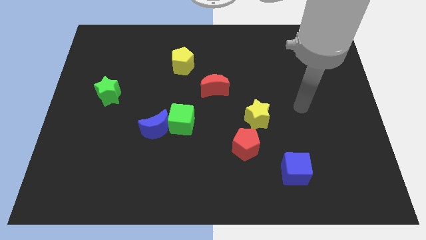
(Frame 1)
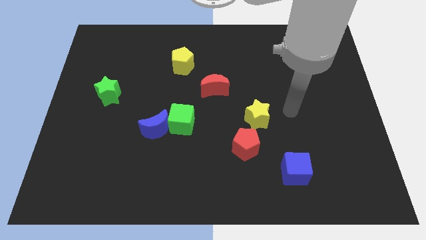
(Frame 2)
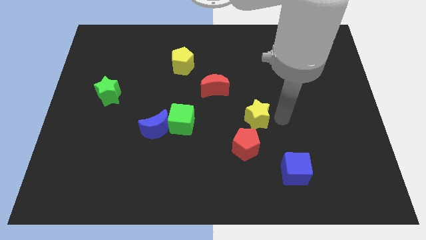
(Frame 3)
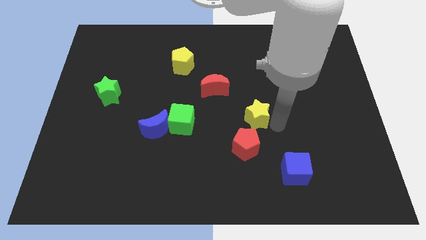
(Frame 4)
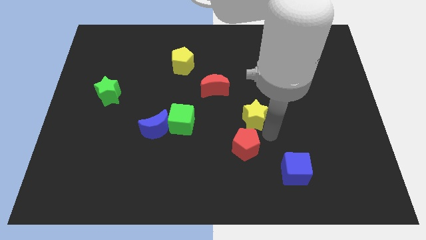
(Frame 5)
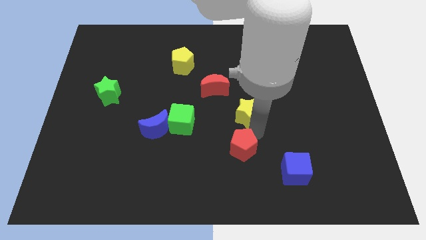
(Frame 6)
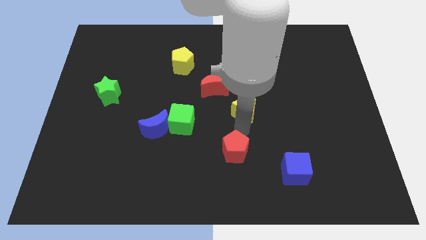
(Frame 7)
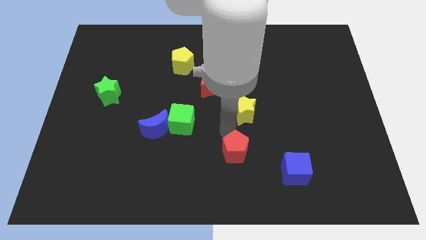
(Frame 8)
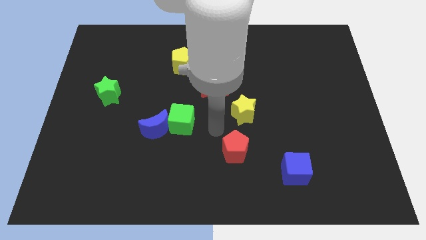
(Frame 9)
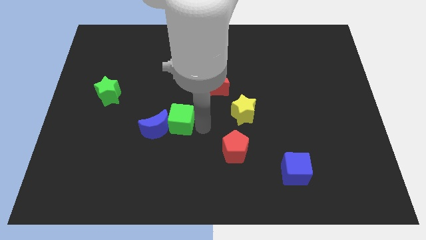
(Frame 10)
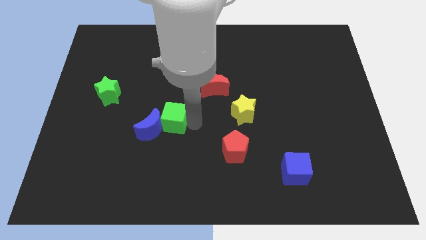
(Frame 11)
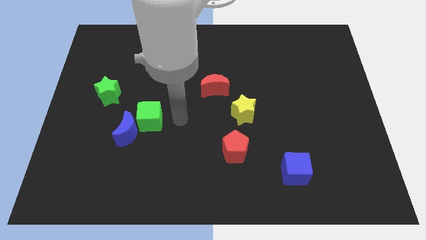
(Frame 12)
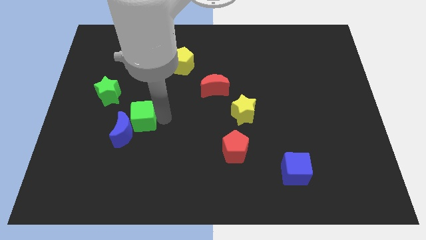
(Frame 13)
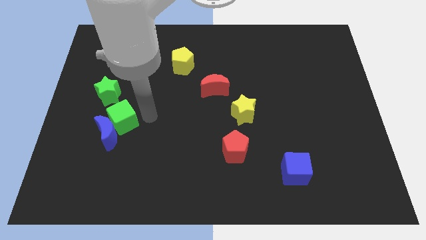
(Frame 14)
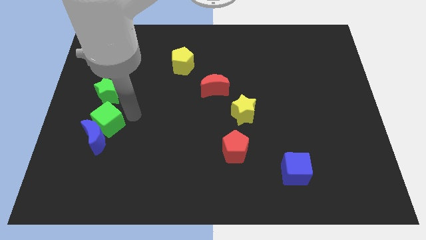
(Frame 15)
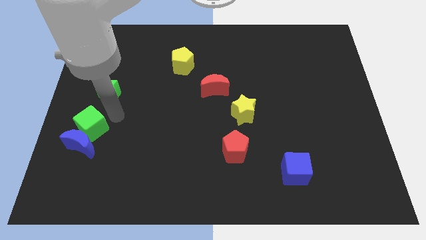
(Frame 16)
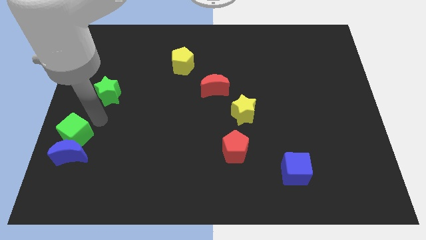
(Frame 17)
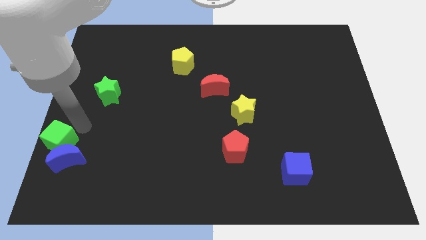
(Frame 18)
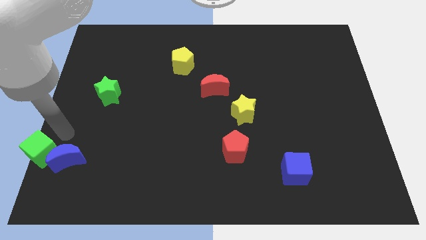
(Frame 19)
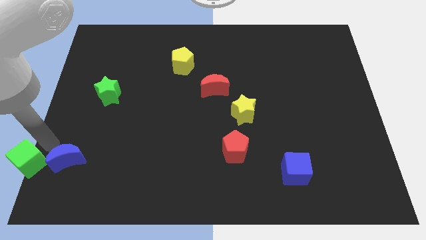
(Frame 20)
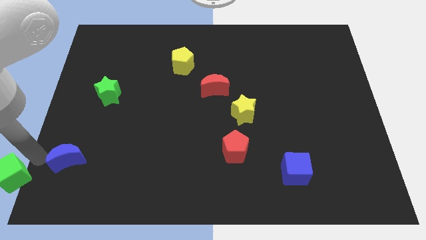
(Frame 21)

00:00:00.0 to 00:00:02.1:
separate the blue moon from the green cube

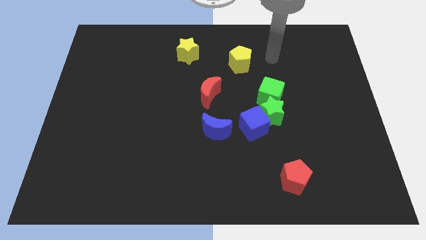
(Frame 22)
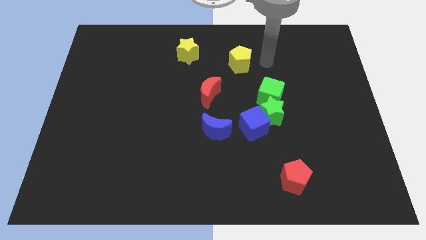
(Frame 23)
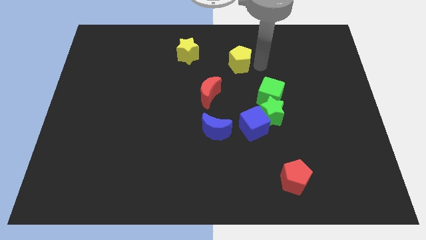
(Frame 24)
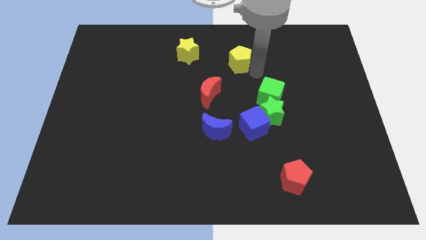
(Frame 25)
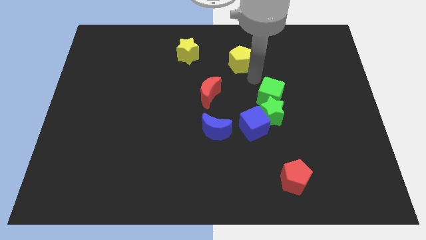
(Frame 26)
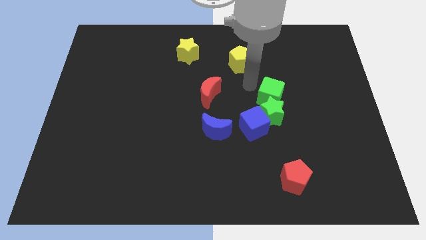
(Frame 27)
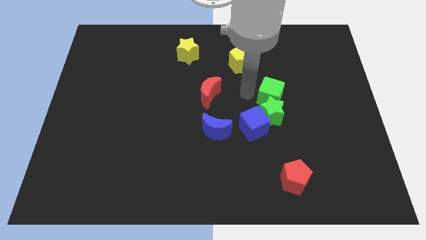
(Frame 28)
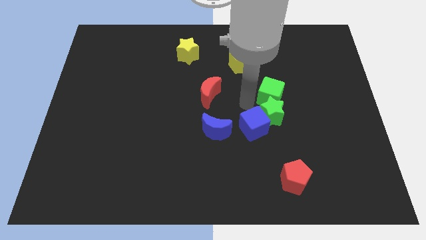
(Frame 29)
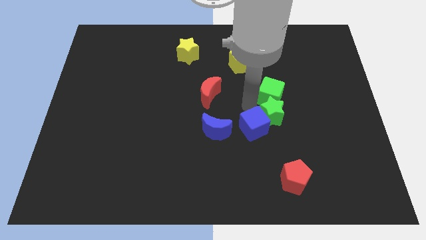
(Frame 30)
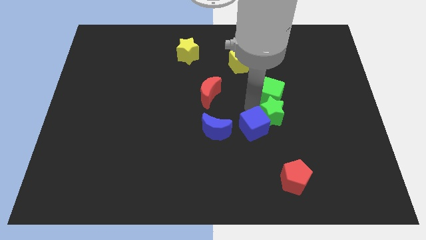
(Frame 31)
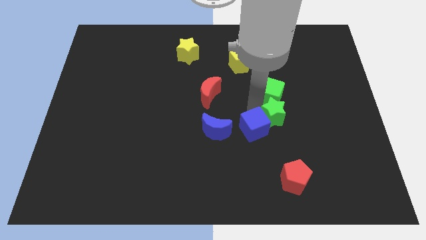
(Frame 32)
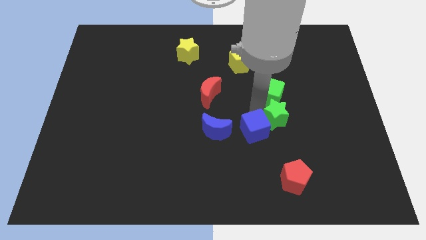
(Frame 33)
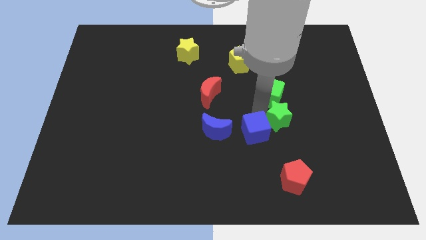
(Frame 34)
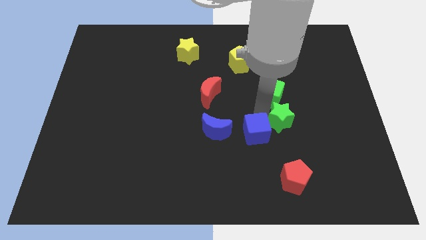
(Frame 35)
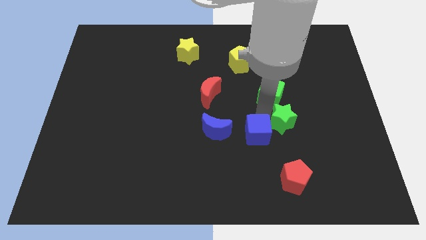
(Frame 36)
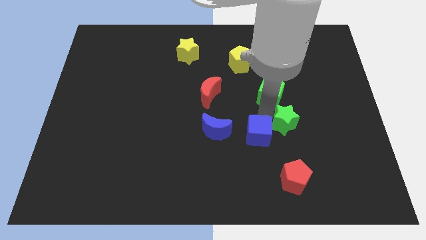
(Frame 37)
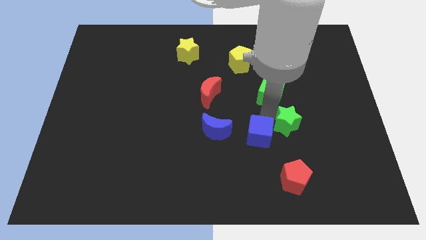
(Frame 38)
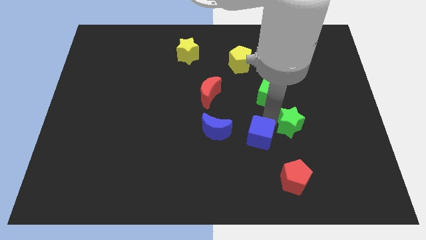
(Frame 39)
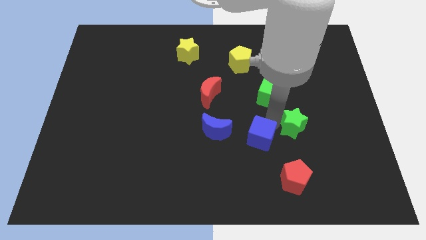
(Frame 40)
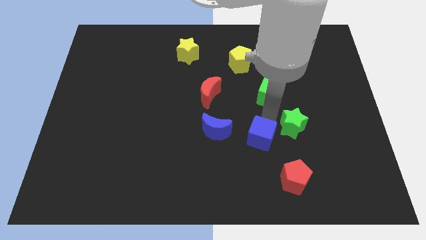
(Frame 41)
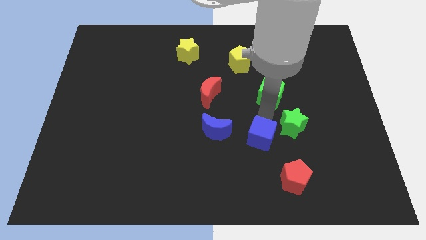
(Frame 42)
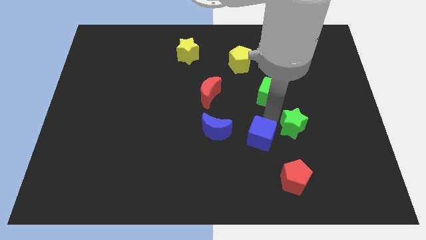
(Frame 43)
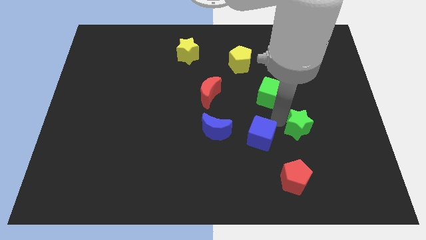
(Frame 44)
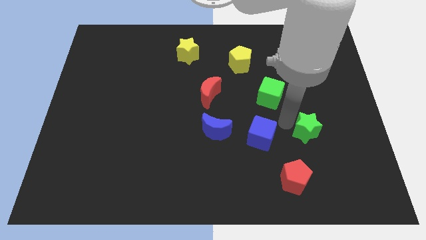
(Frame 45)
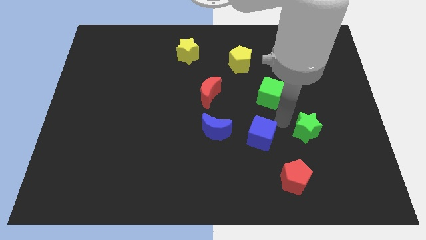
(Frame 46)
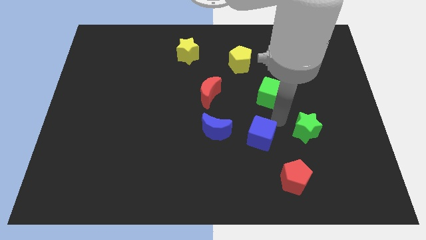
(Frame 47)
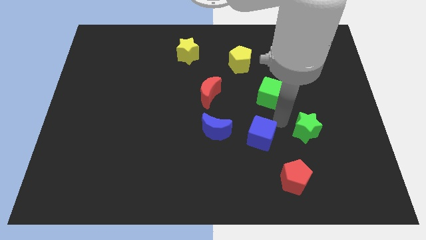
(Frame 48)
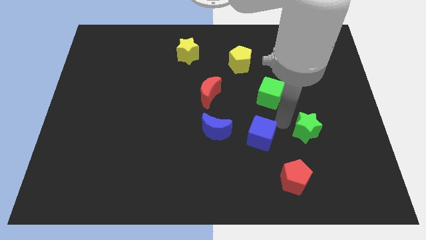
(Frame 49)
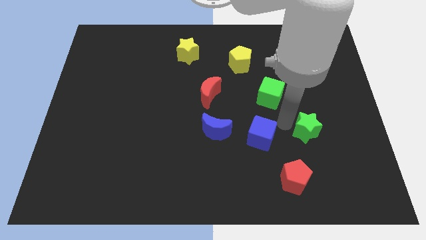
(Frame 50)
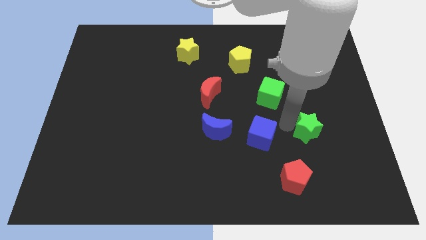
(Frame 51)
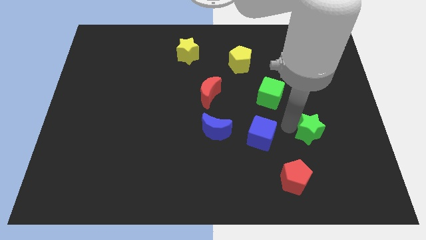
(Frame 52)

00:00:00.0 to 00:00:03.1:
move the green star away from the blue cube and green cube

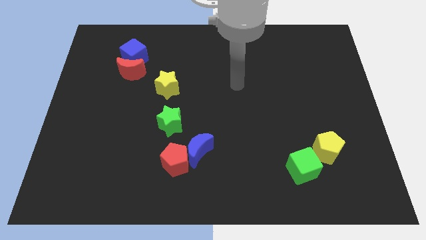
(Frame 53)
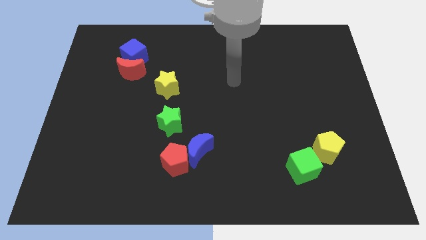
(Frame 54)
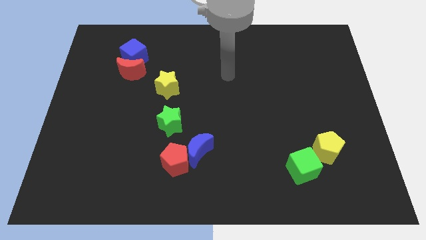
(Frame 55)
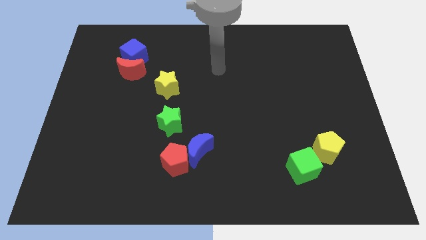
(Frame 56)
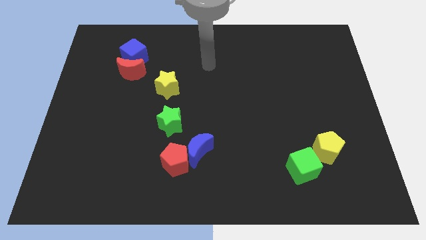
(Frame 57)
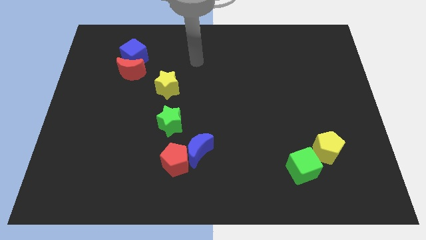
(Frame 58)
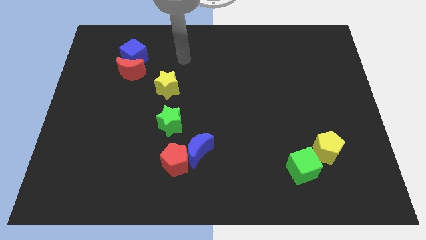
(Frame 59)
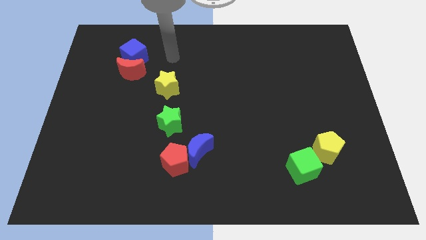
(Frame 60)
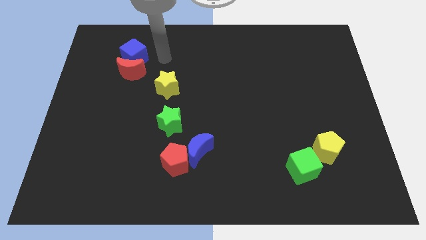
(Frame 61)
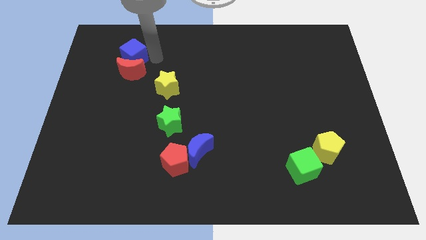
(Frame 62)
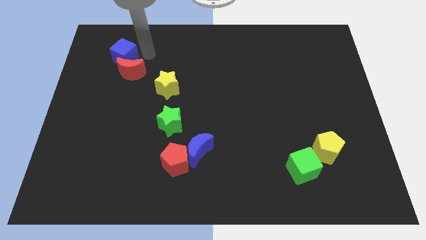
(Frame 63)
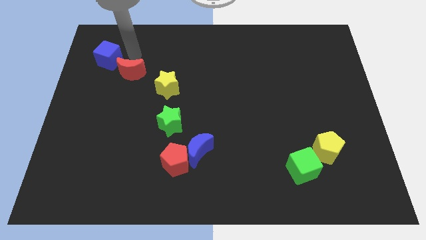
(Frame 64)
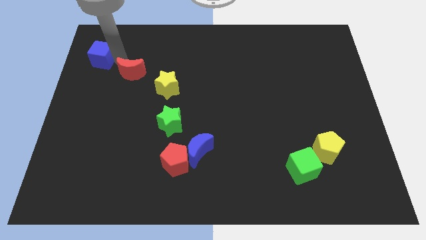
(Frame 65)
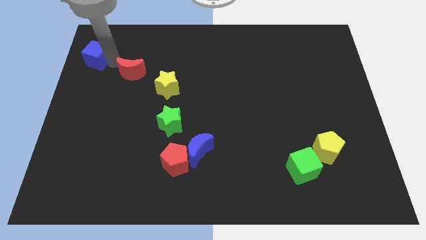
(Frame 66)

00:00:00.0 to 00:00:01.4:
move the red moon away from the blue cube

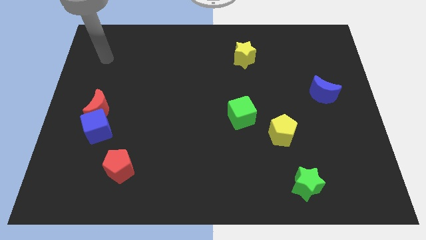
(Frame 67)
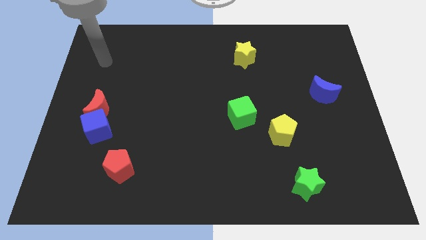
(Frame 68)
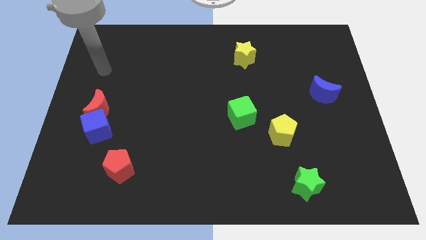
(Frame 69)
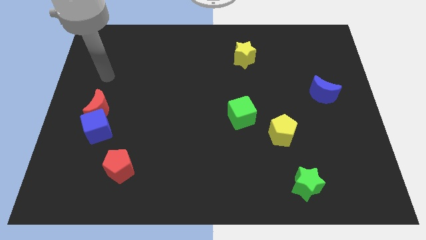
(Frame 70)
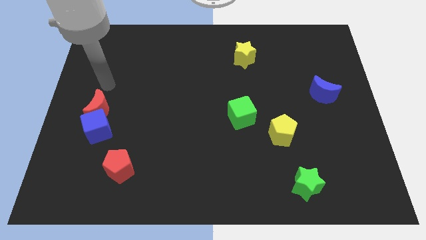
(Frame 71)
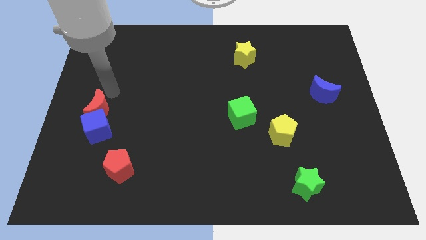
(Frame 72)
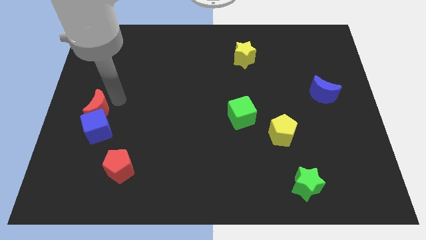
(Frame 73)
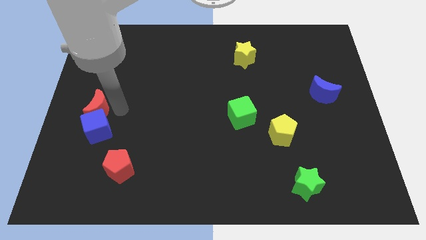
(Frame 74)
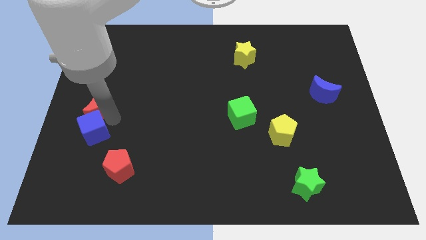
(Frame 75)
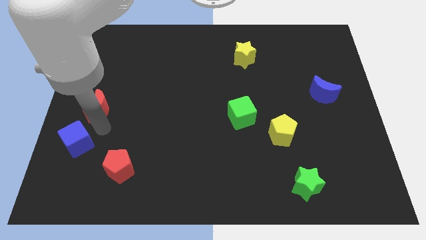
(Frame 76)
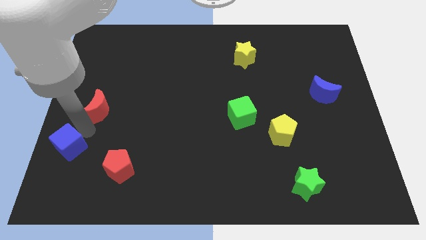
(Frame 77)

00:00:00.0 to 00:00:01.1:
separate the red moon from the blue cube

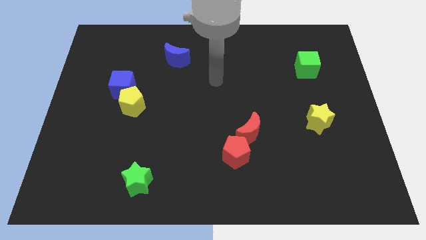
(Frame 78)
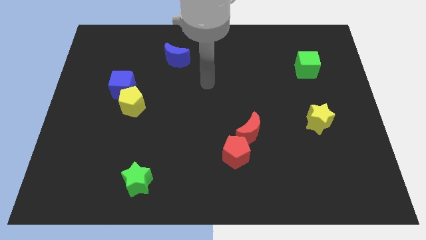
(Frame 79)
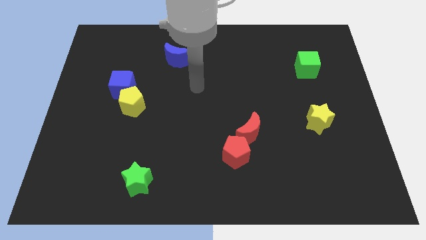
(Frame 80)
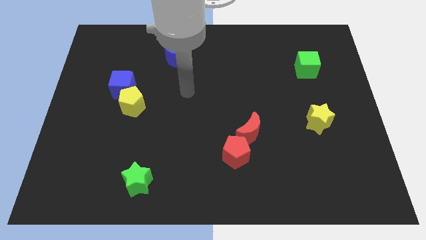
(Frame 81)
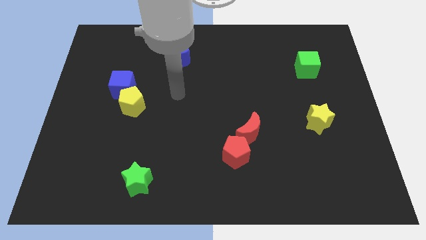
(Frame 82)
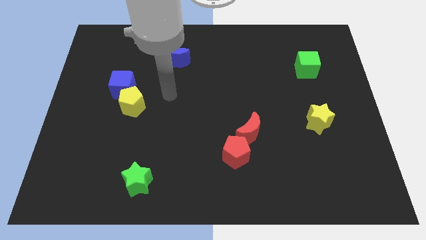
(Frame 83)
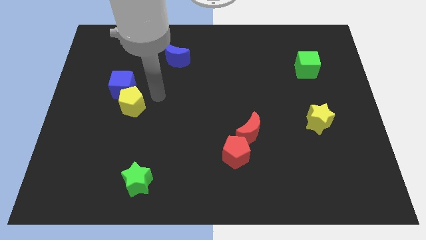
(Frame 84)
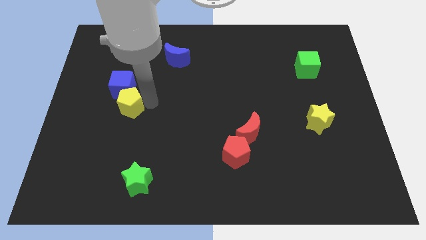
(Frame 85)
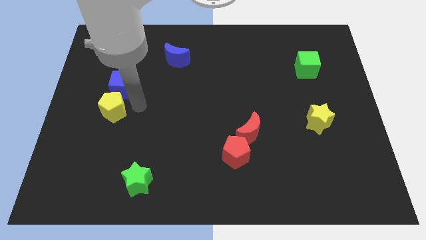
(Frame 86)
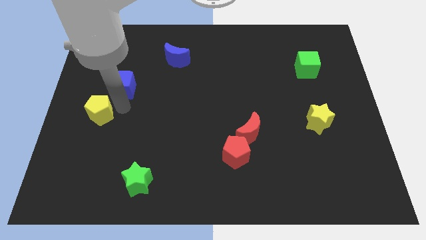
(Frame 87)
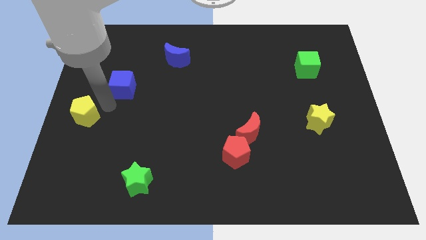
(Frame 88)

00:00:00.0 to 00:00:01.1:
pull the blue cube apart from the yellow pentagon

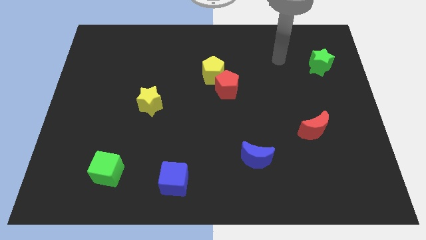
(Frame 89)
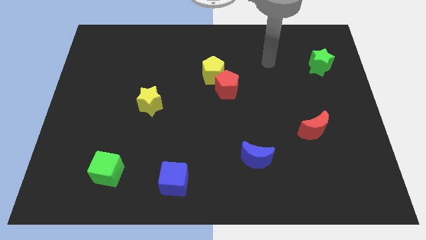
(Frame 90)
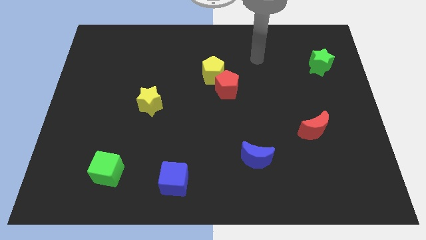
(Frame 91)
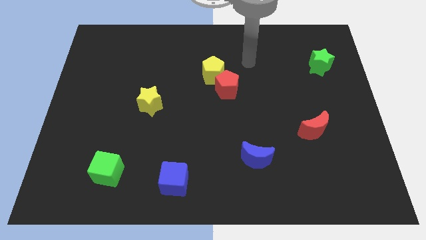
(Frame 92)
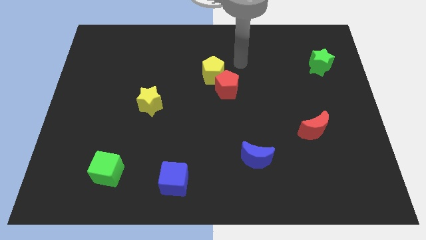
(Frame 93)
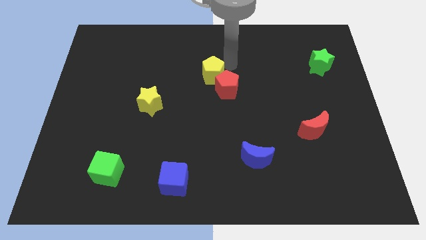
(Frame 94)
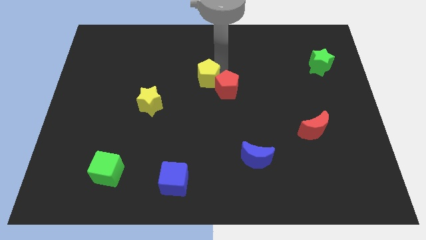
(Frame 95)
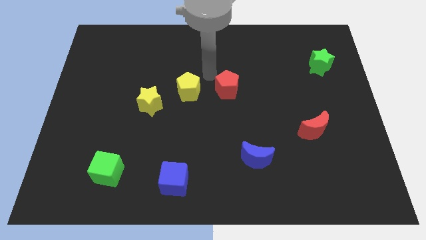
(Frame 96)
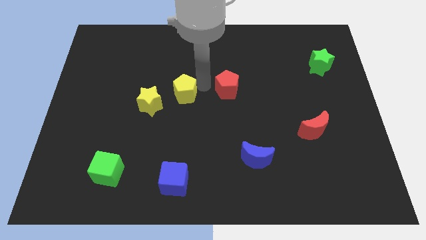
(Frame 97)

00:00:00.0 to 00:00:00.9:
separate the red pentagon from the yellow pentagon
